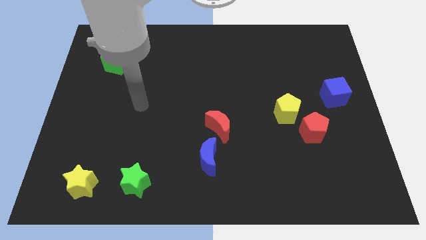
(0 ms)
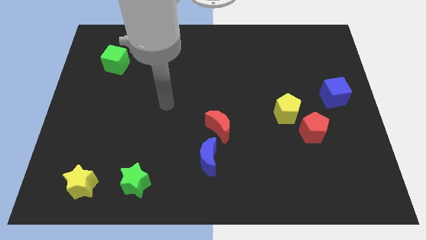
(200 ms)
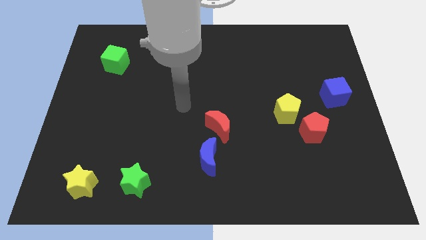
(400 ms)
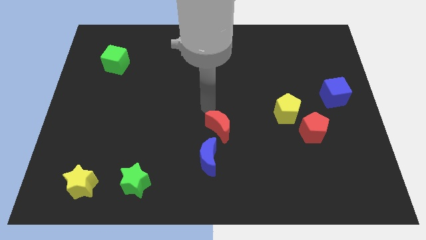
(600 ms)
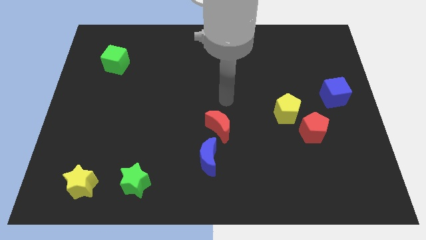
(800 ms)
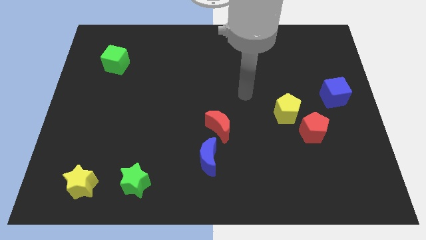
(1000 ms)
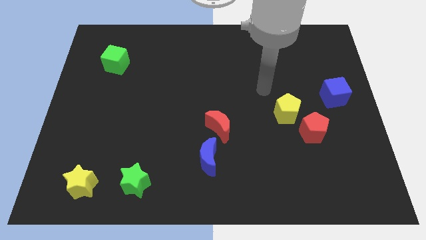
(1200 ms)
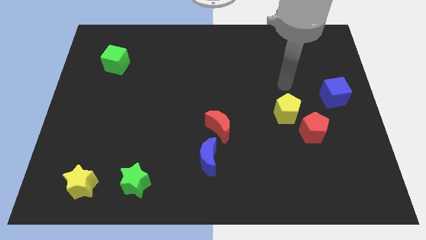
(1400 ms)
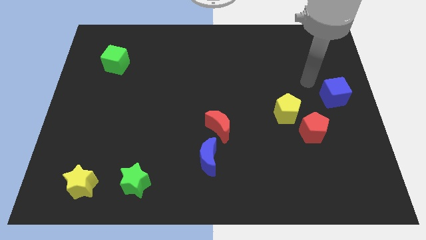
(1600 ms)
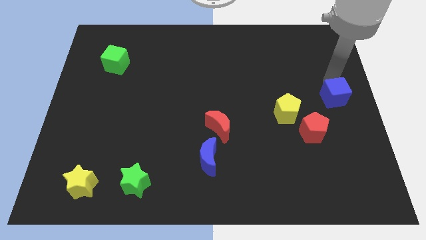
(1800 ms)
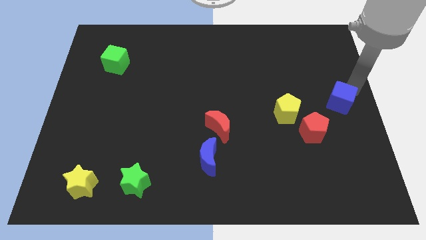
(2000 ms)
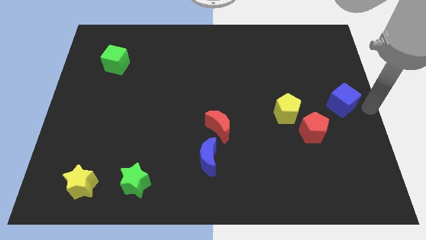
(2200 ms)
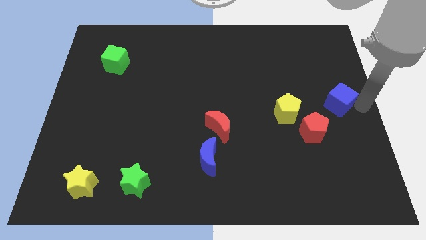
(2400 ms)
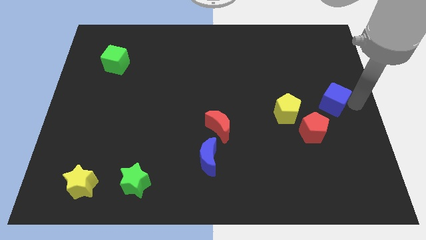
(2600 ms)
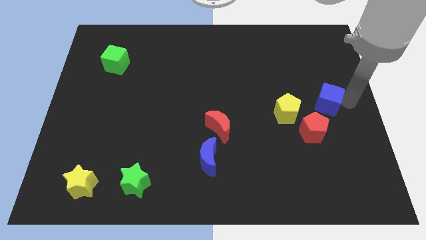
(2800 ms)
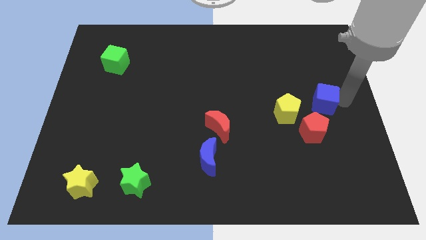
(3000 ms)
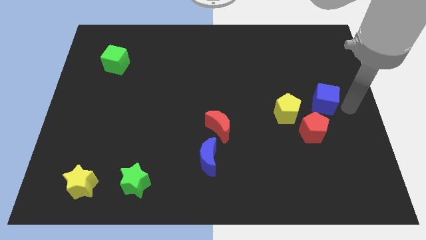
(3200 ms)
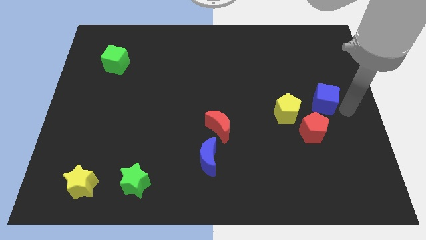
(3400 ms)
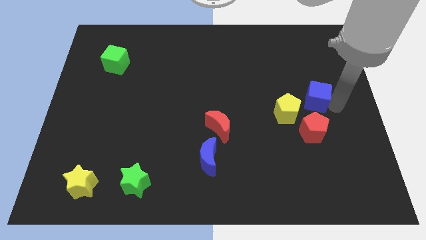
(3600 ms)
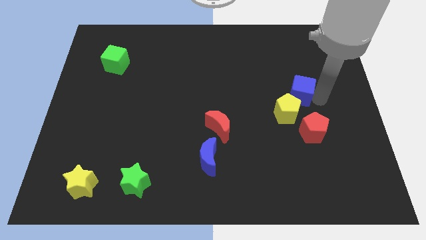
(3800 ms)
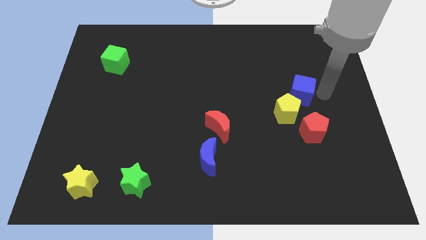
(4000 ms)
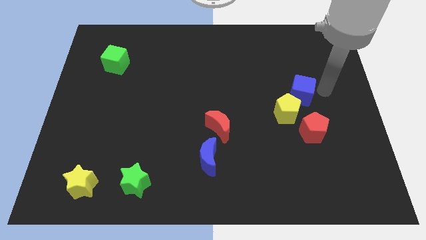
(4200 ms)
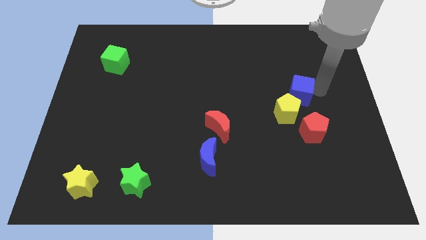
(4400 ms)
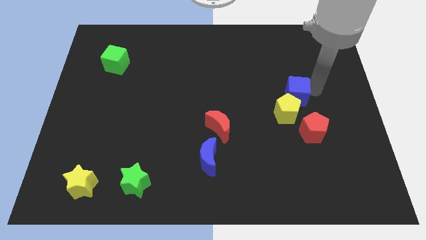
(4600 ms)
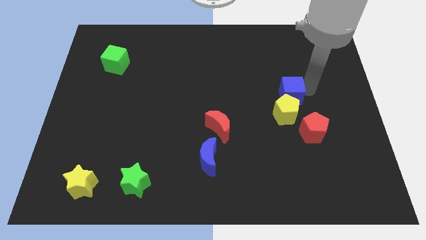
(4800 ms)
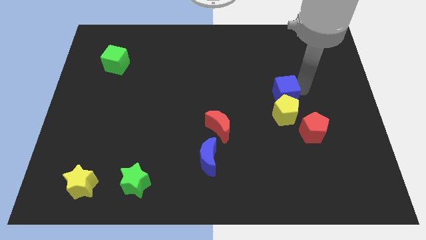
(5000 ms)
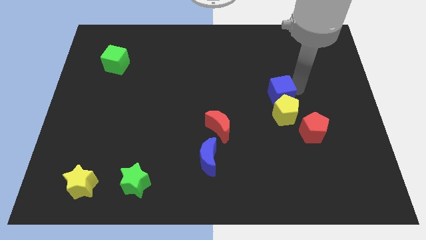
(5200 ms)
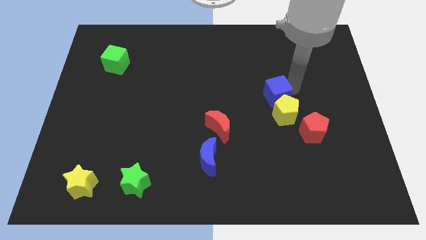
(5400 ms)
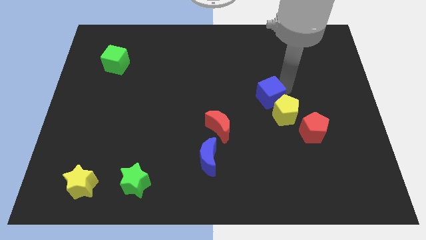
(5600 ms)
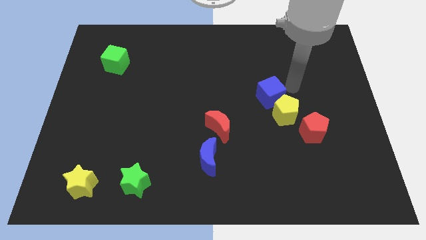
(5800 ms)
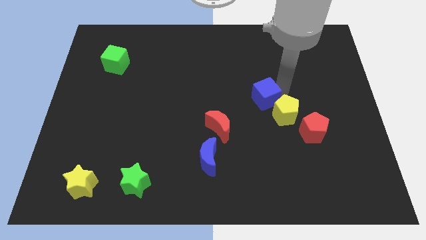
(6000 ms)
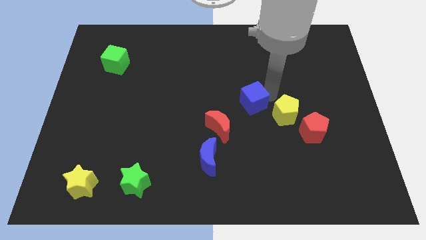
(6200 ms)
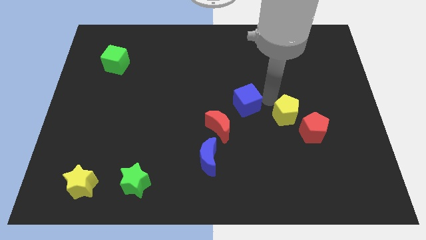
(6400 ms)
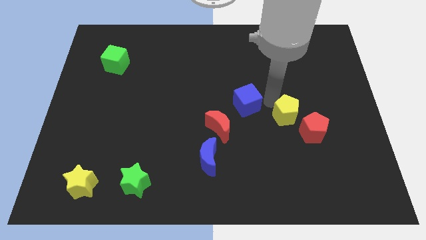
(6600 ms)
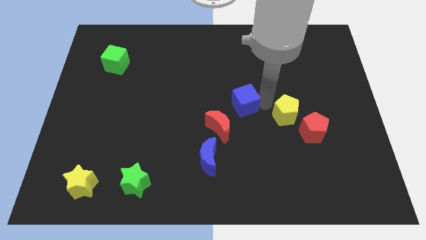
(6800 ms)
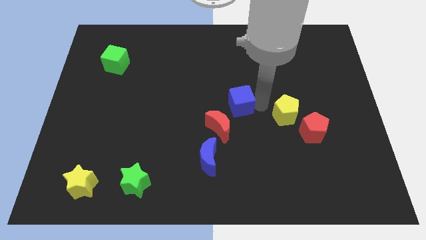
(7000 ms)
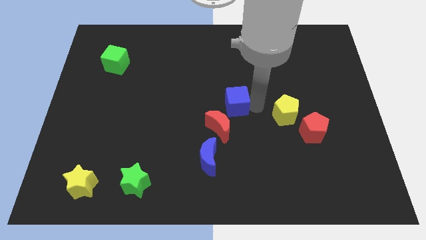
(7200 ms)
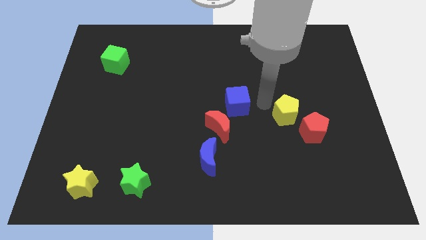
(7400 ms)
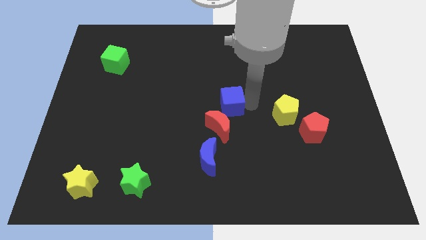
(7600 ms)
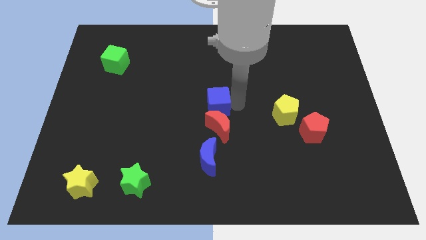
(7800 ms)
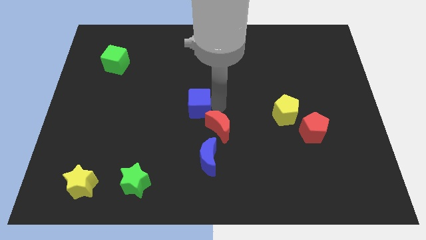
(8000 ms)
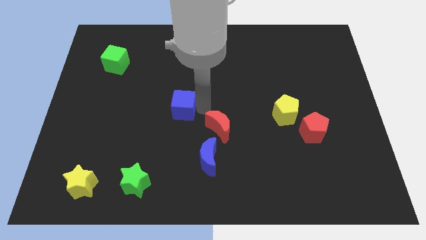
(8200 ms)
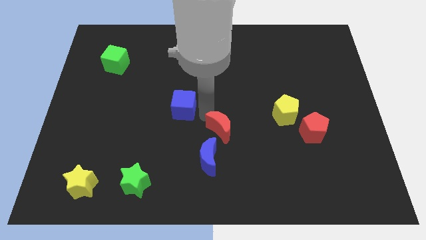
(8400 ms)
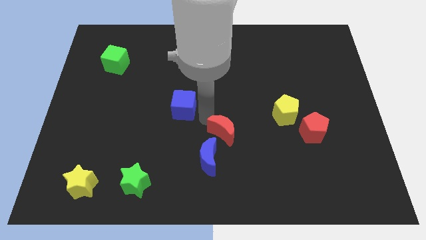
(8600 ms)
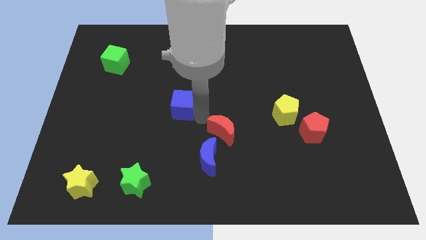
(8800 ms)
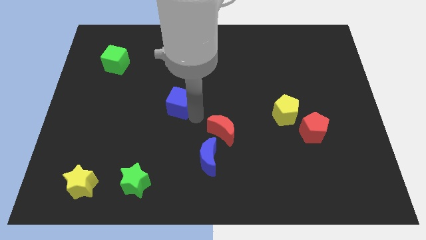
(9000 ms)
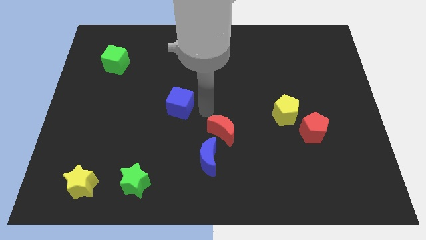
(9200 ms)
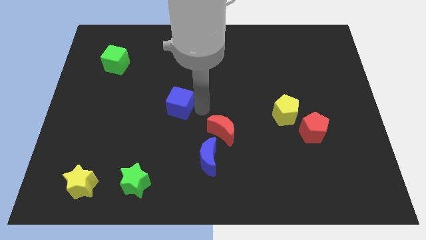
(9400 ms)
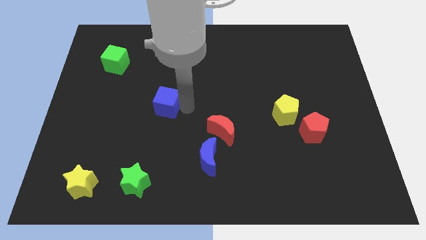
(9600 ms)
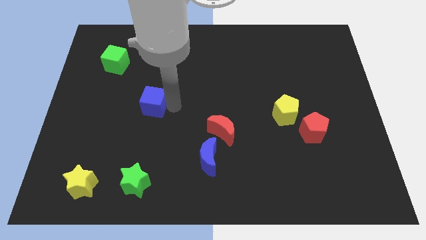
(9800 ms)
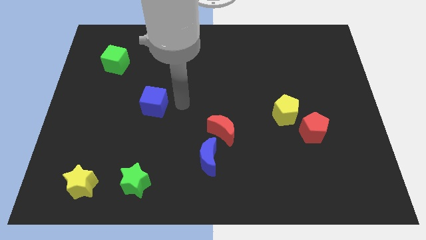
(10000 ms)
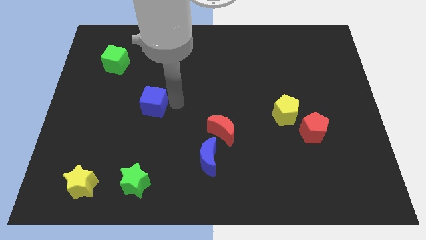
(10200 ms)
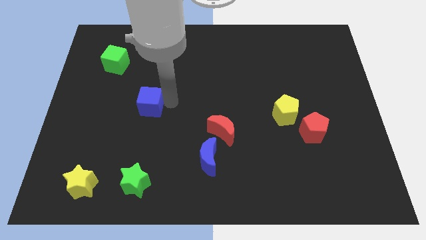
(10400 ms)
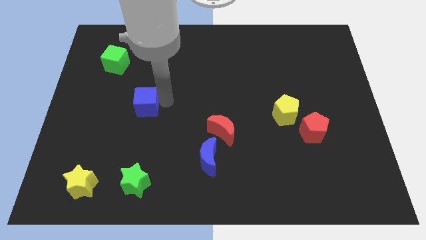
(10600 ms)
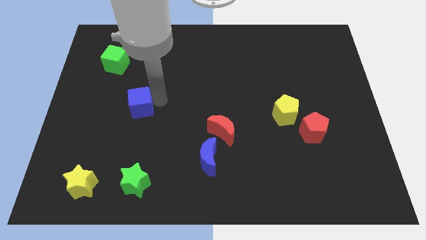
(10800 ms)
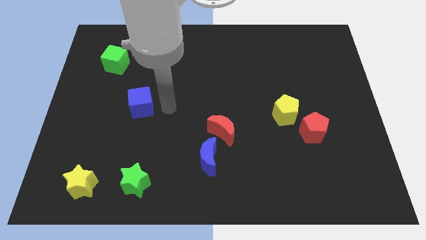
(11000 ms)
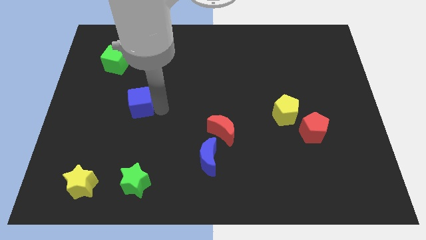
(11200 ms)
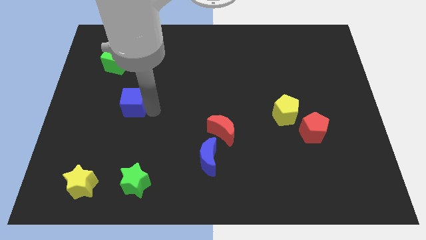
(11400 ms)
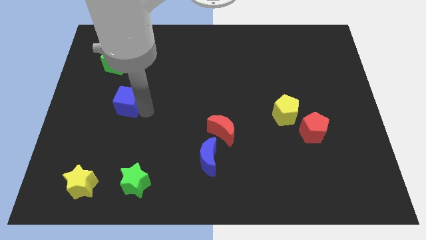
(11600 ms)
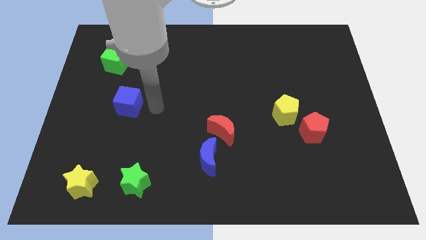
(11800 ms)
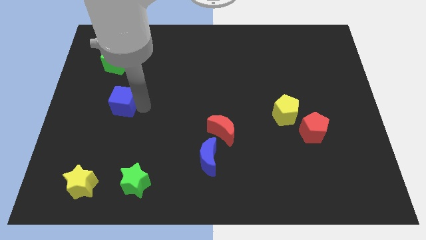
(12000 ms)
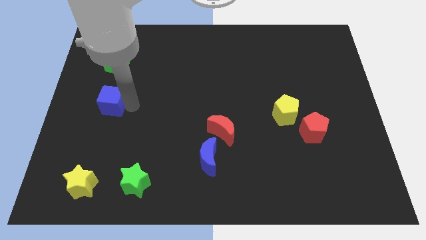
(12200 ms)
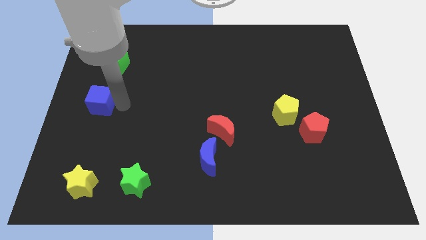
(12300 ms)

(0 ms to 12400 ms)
move the blue cube to the left side of the board
